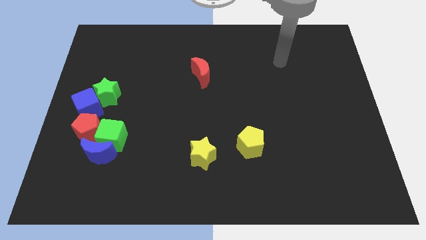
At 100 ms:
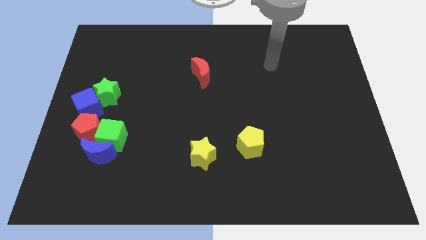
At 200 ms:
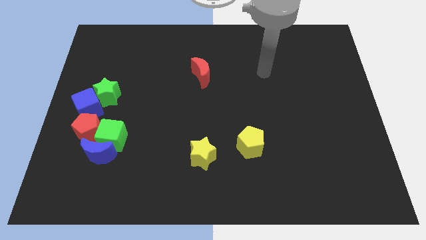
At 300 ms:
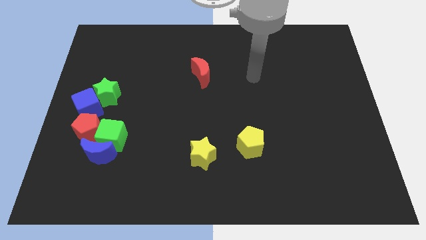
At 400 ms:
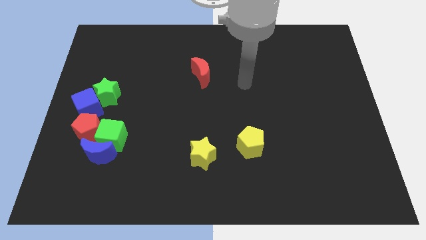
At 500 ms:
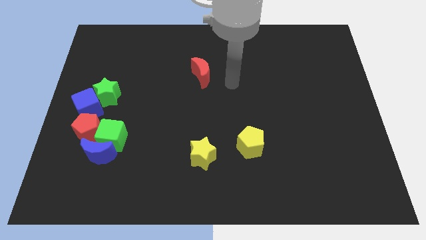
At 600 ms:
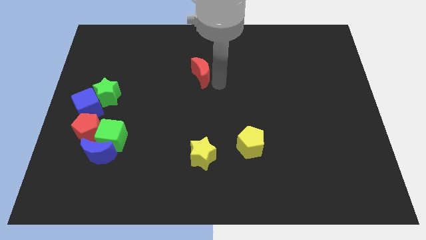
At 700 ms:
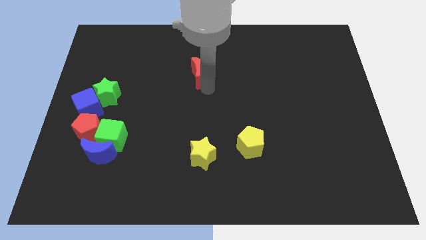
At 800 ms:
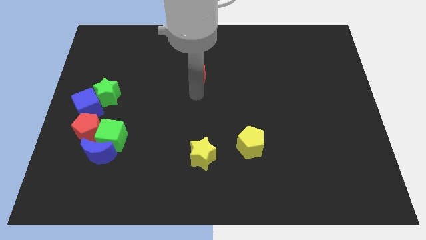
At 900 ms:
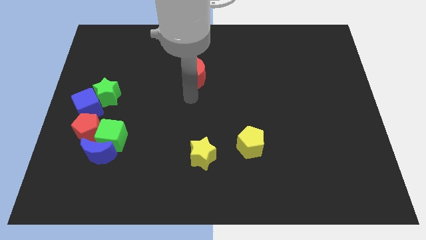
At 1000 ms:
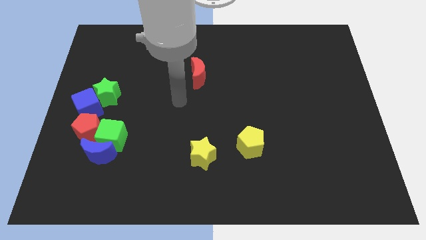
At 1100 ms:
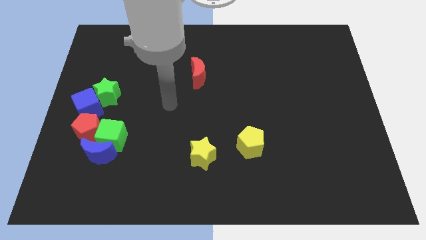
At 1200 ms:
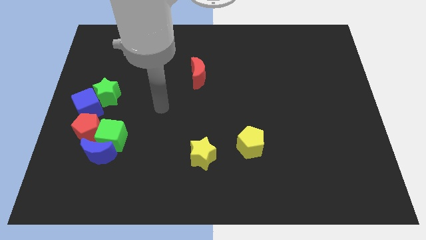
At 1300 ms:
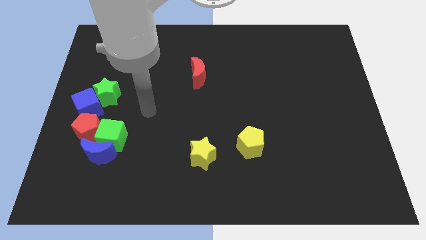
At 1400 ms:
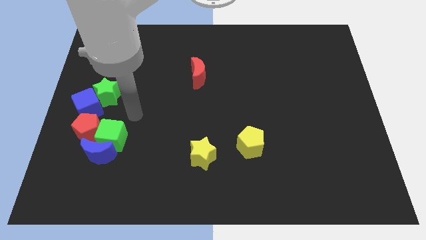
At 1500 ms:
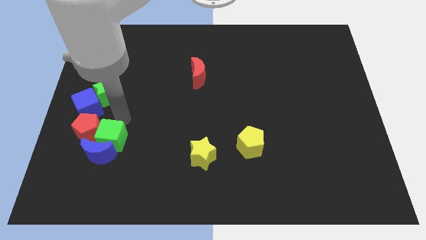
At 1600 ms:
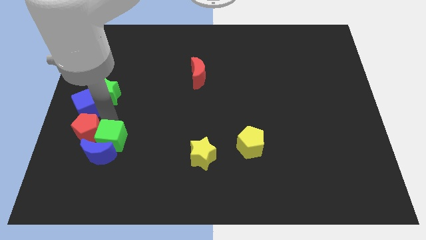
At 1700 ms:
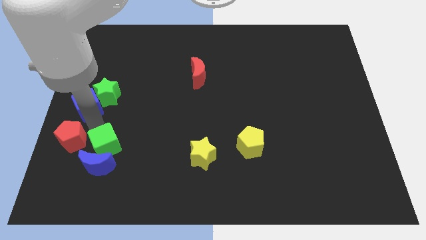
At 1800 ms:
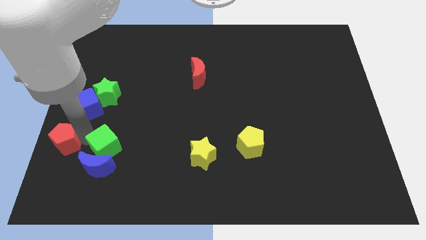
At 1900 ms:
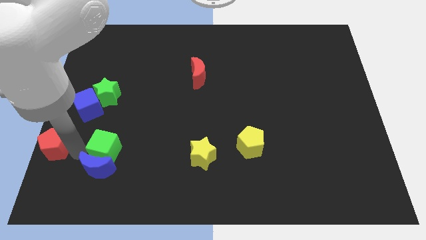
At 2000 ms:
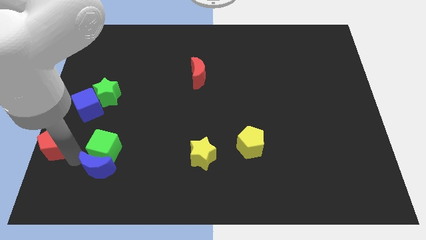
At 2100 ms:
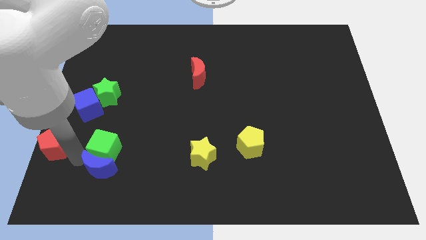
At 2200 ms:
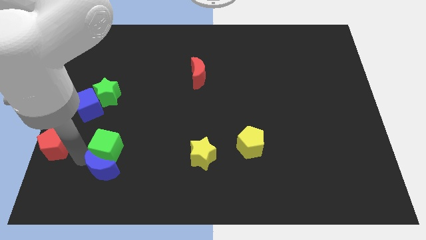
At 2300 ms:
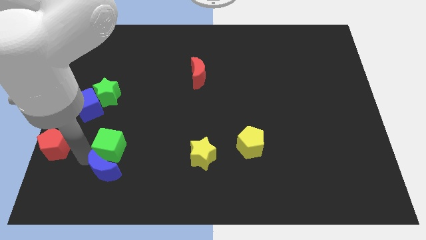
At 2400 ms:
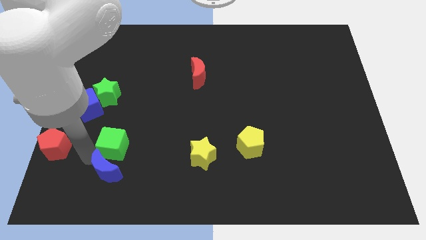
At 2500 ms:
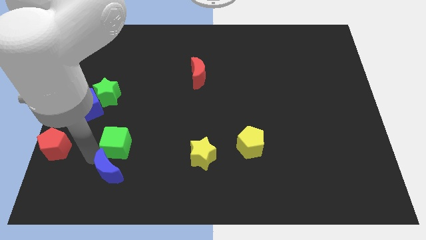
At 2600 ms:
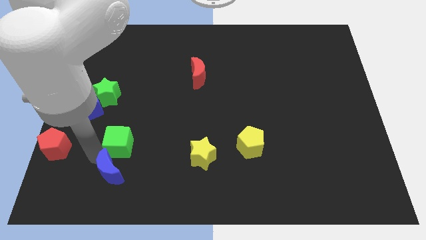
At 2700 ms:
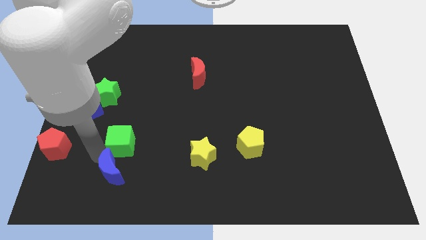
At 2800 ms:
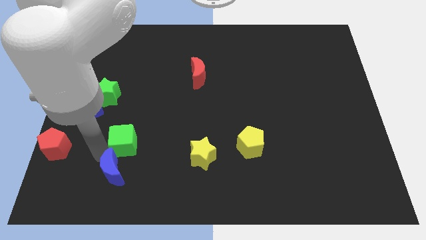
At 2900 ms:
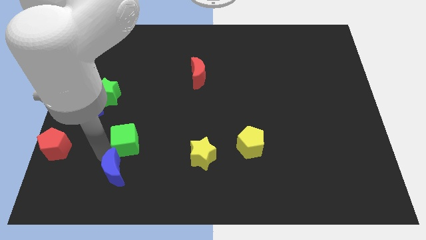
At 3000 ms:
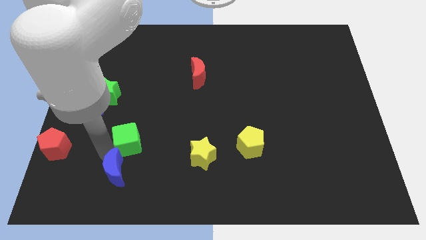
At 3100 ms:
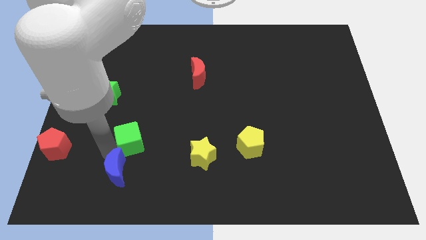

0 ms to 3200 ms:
separate the green cube from the blue moon and red pentagon

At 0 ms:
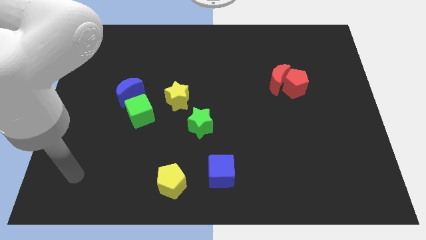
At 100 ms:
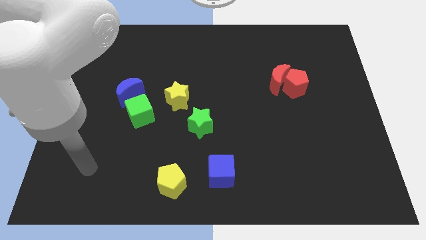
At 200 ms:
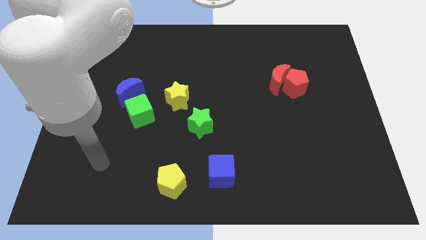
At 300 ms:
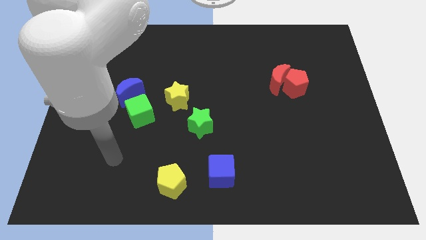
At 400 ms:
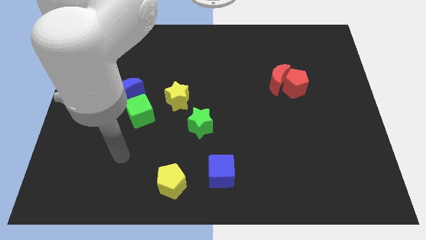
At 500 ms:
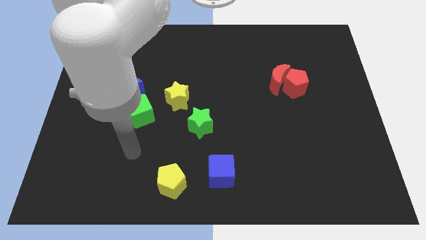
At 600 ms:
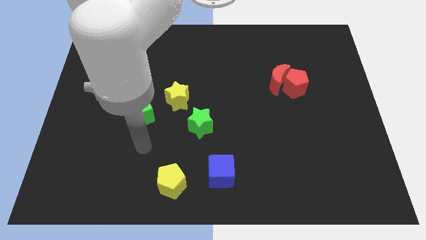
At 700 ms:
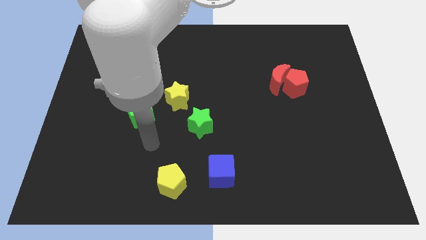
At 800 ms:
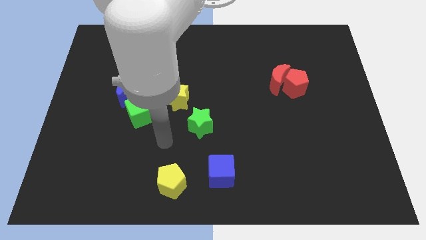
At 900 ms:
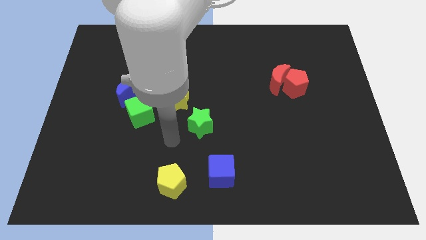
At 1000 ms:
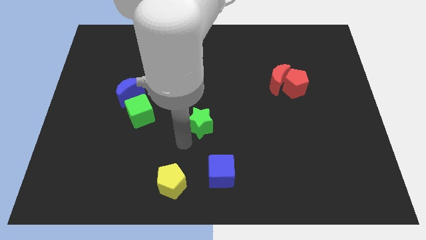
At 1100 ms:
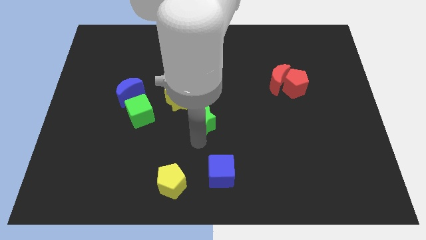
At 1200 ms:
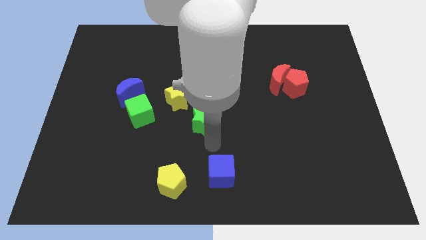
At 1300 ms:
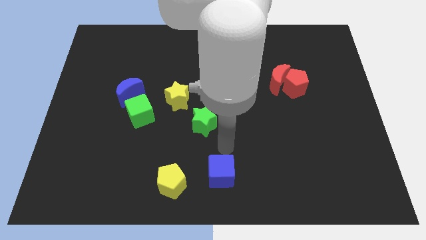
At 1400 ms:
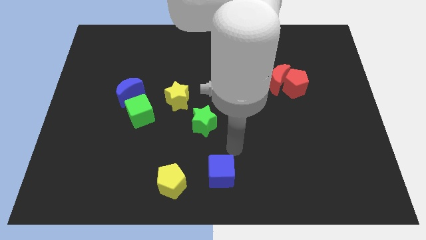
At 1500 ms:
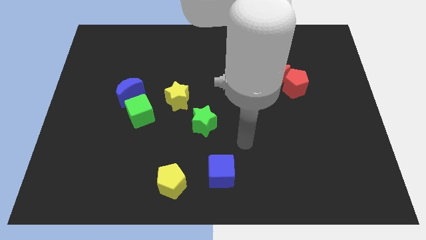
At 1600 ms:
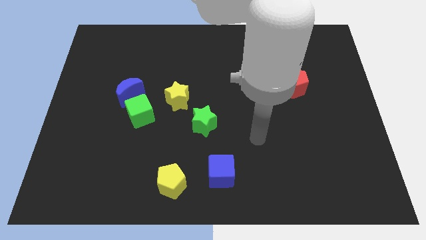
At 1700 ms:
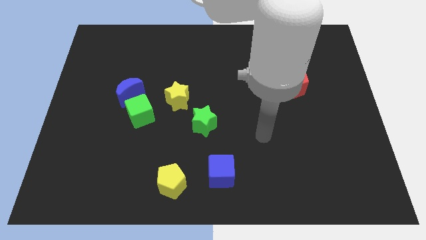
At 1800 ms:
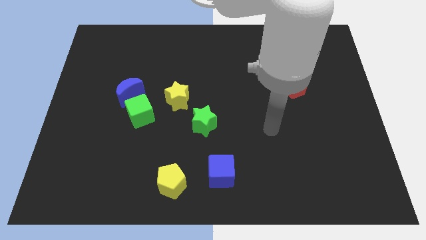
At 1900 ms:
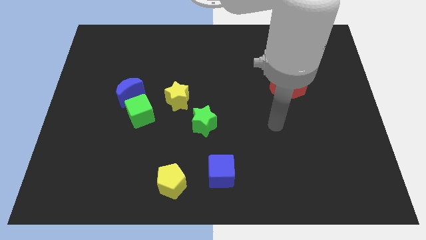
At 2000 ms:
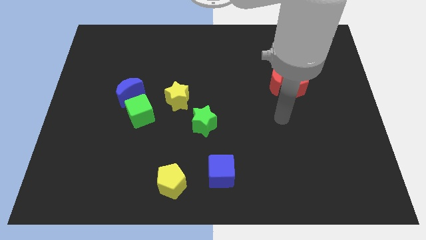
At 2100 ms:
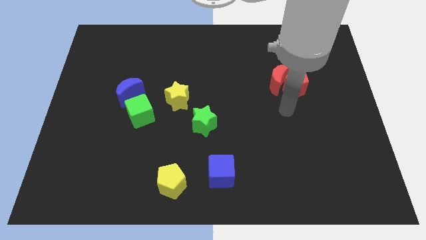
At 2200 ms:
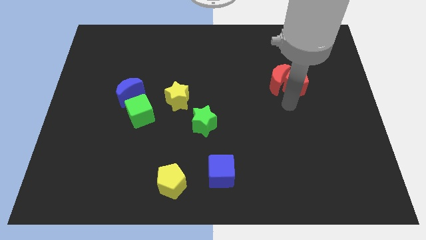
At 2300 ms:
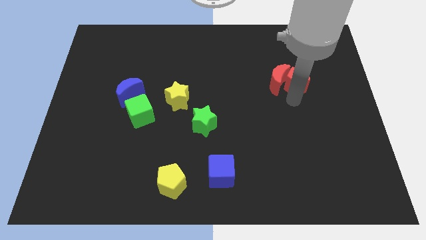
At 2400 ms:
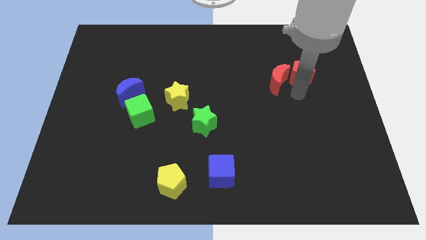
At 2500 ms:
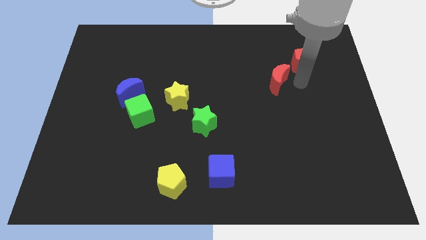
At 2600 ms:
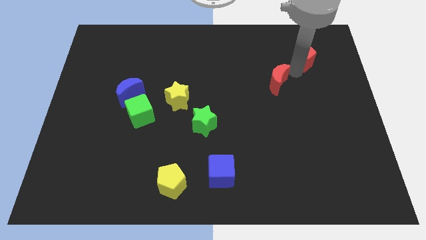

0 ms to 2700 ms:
separate the red moon from the red pentagon

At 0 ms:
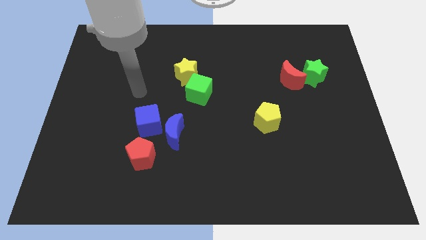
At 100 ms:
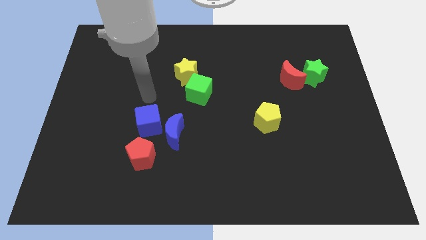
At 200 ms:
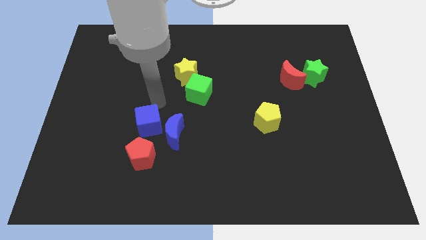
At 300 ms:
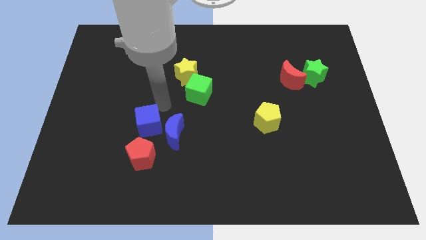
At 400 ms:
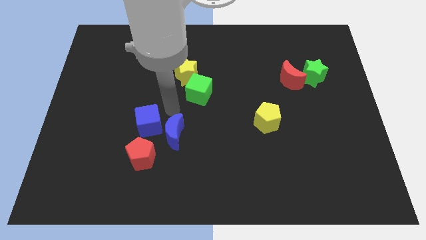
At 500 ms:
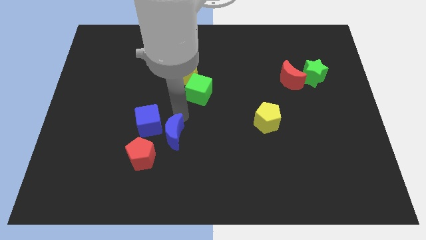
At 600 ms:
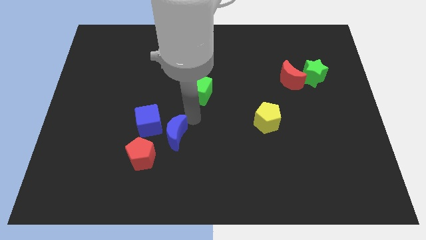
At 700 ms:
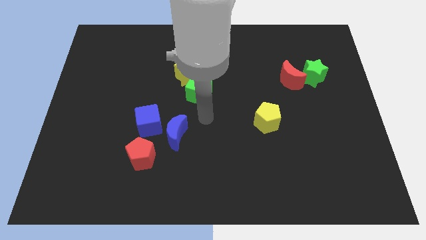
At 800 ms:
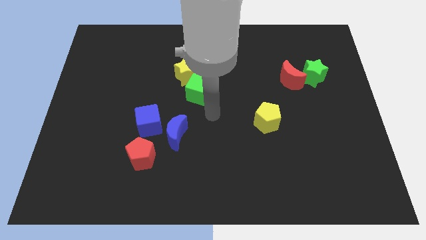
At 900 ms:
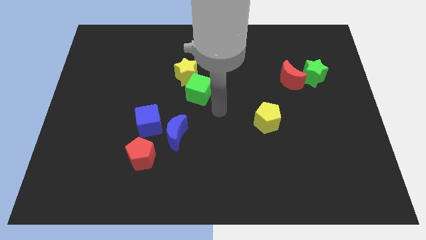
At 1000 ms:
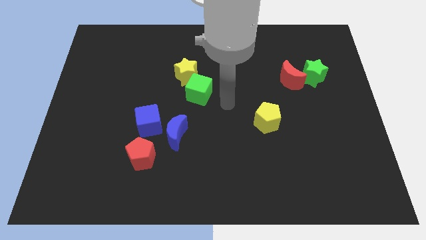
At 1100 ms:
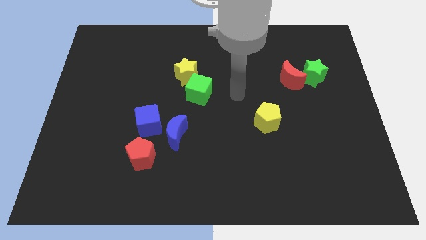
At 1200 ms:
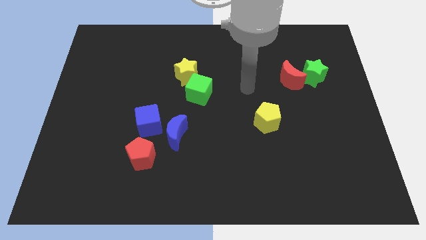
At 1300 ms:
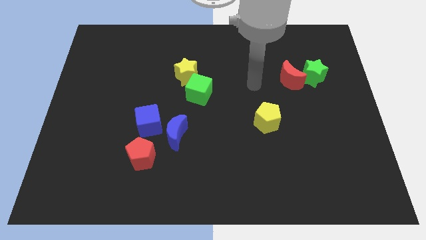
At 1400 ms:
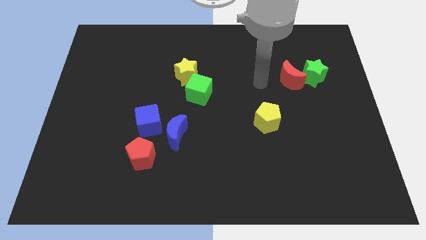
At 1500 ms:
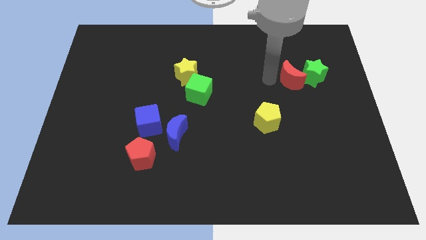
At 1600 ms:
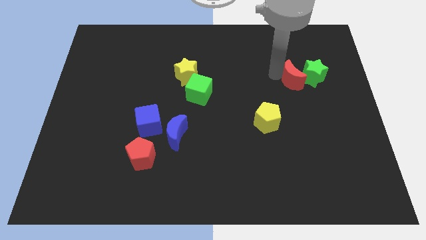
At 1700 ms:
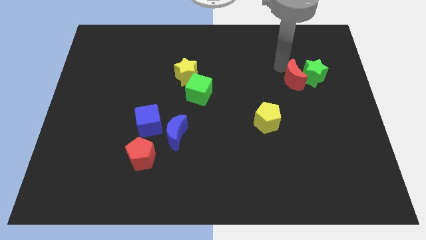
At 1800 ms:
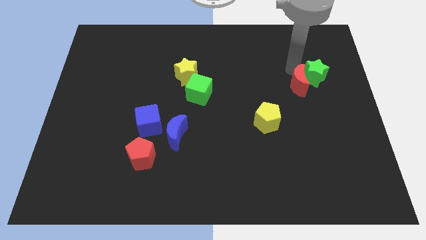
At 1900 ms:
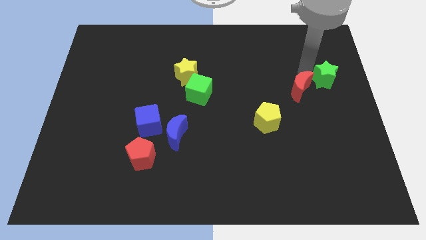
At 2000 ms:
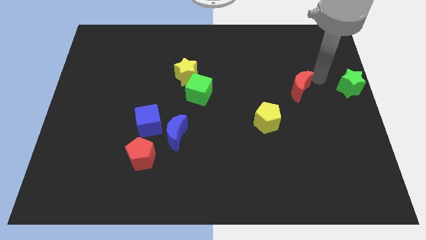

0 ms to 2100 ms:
pull the red moon apart from the green star

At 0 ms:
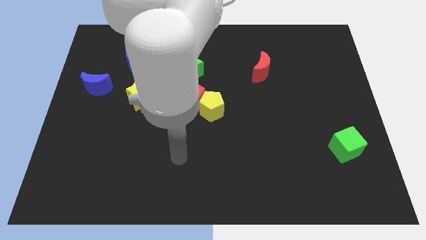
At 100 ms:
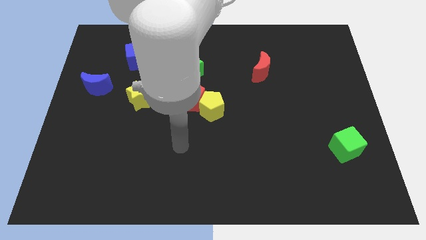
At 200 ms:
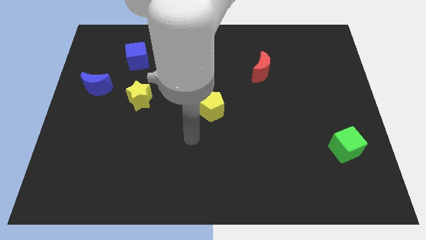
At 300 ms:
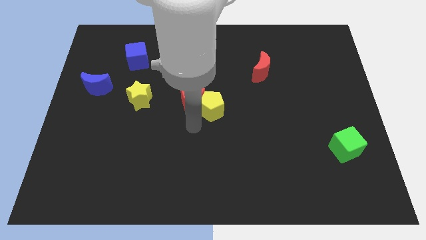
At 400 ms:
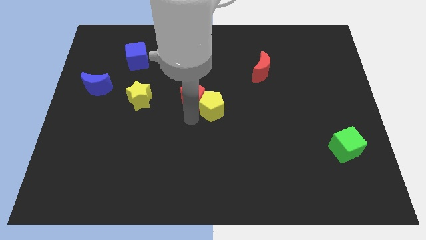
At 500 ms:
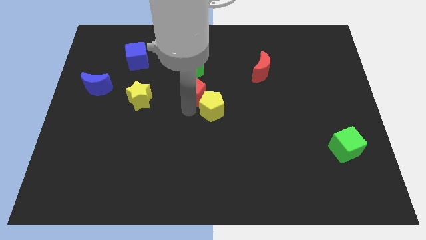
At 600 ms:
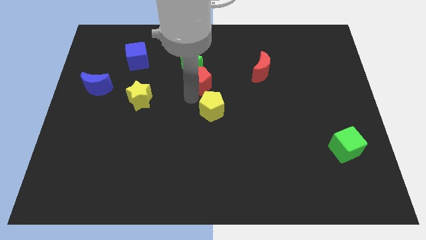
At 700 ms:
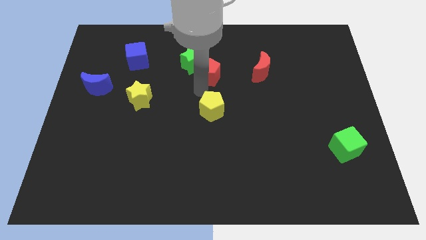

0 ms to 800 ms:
separate the yellow pentagon from the red pentagon

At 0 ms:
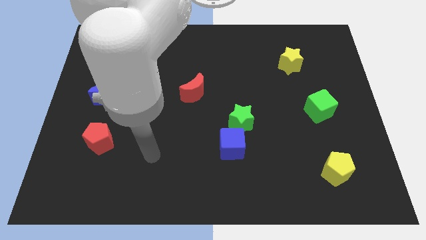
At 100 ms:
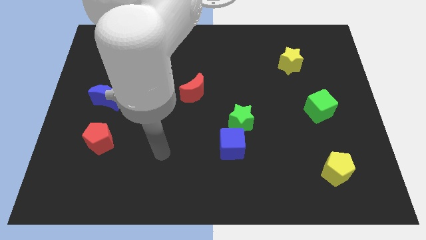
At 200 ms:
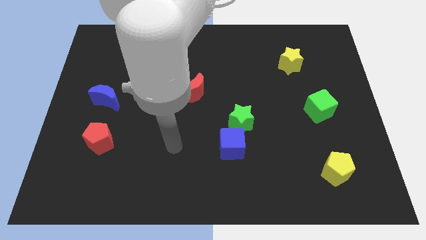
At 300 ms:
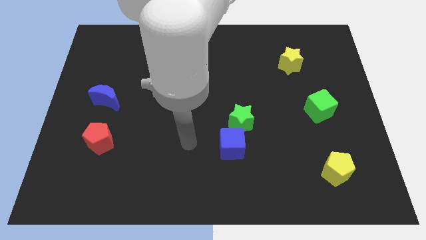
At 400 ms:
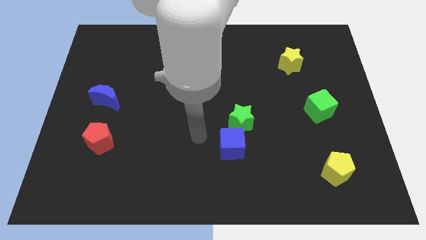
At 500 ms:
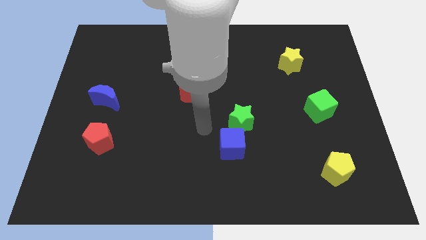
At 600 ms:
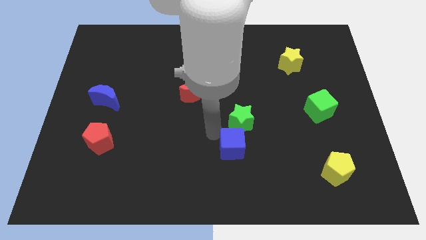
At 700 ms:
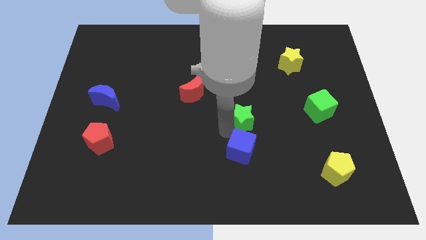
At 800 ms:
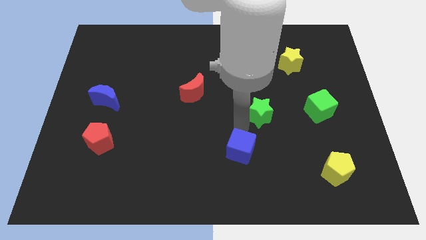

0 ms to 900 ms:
separate the blue cube from the green star
